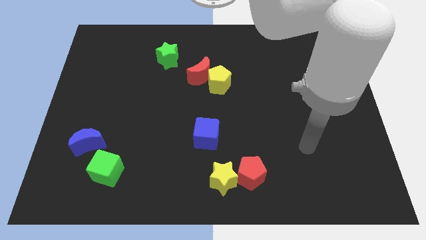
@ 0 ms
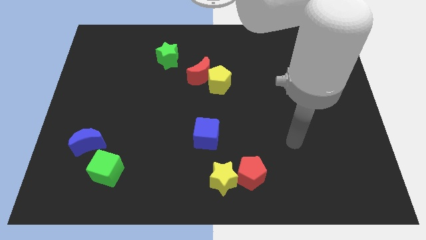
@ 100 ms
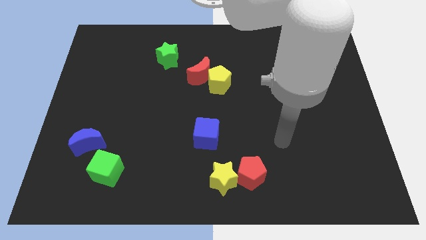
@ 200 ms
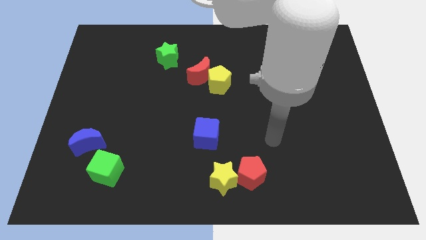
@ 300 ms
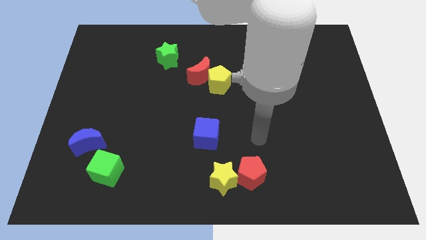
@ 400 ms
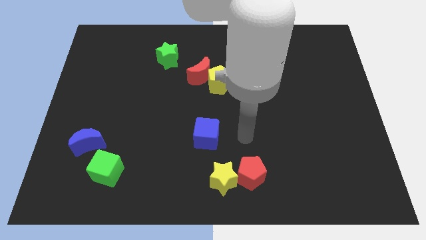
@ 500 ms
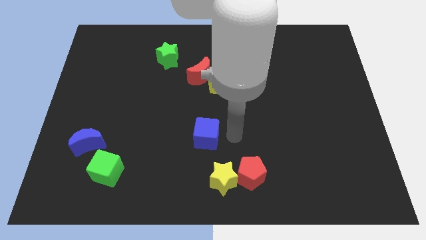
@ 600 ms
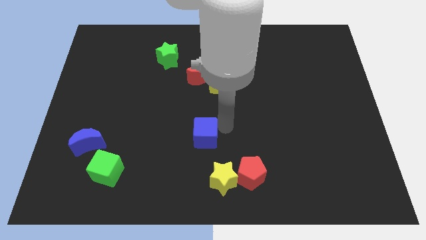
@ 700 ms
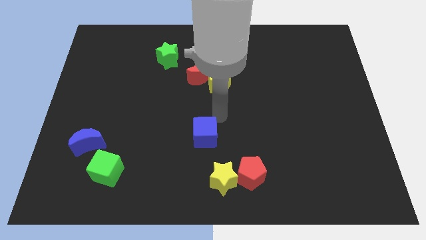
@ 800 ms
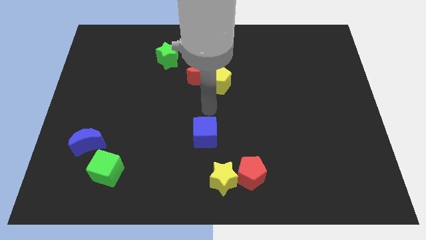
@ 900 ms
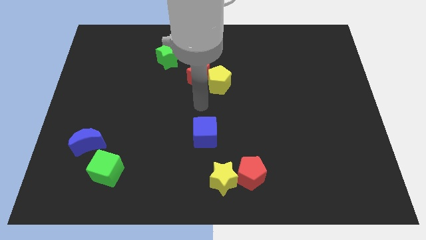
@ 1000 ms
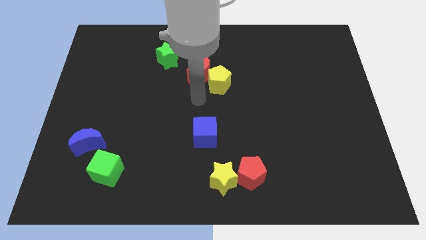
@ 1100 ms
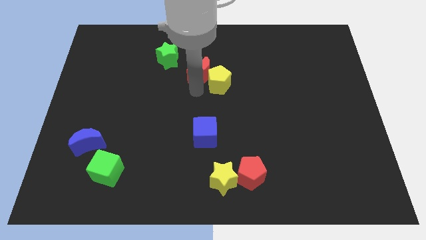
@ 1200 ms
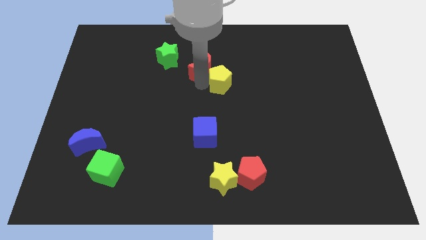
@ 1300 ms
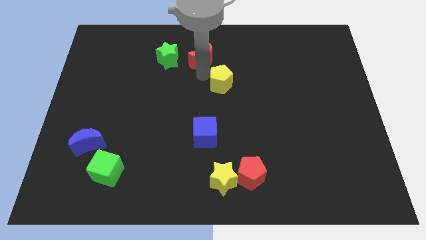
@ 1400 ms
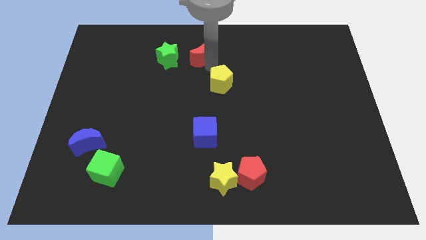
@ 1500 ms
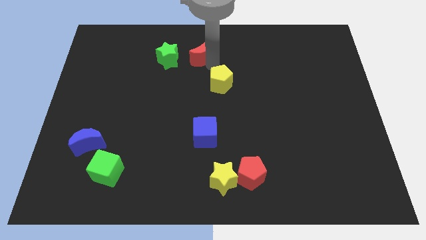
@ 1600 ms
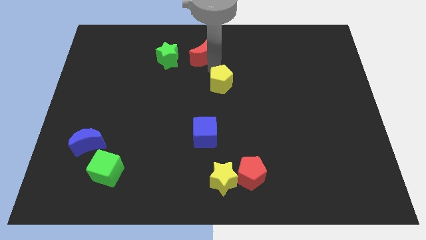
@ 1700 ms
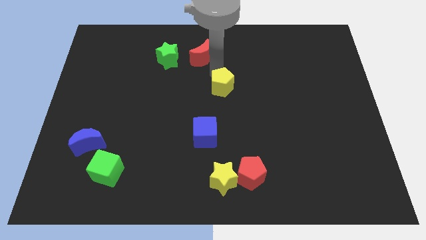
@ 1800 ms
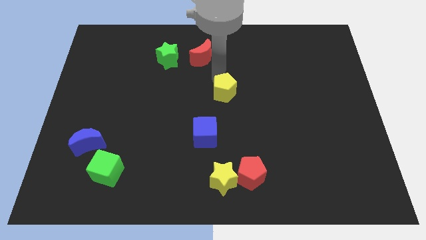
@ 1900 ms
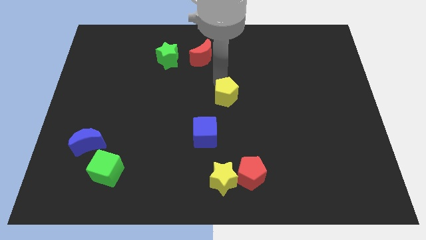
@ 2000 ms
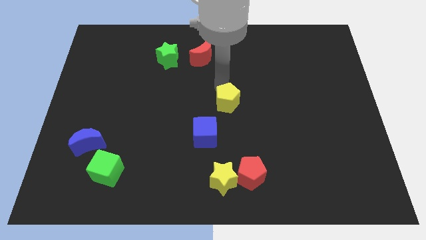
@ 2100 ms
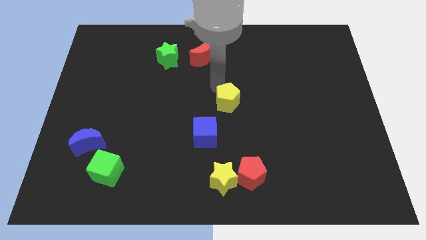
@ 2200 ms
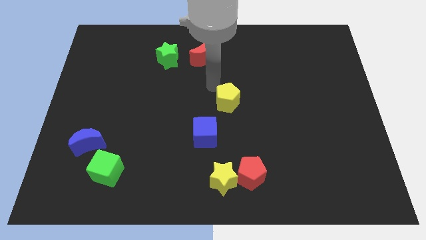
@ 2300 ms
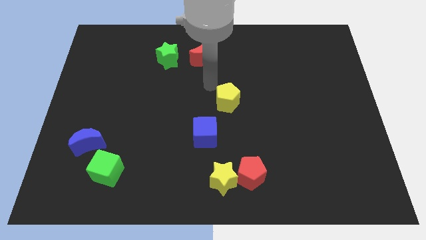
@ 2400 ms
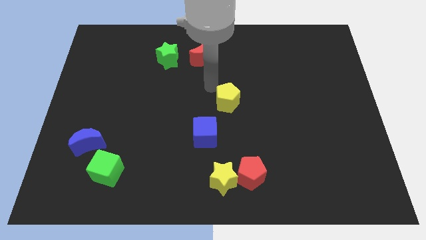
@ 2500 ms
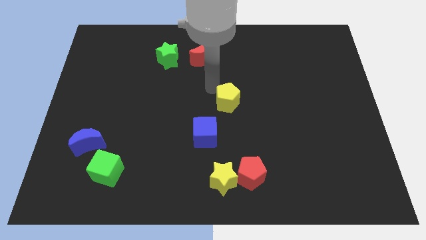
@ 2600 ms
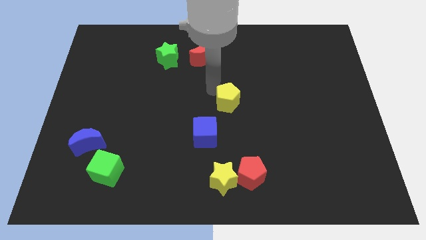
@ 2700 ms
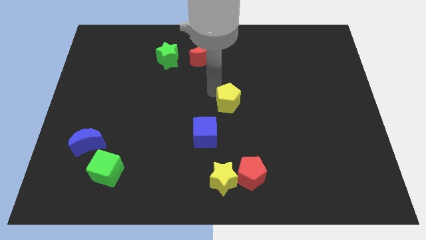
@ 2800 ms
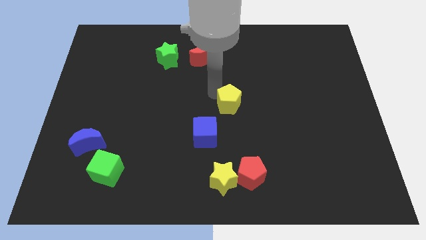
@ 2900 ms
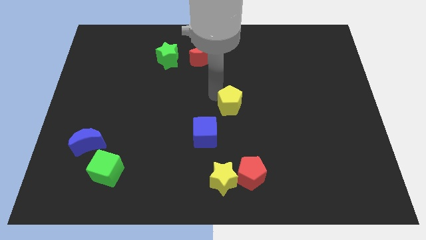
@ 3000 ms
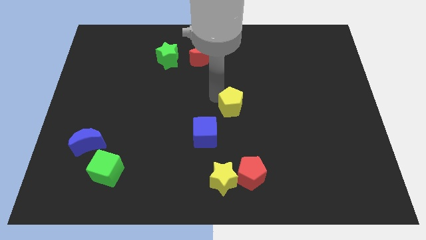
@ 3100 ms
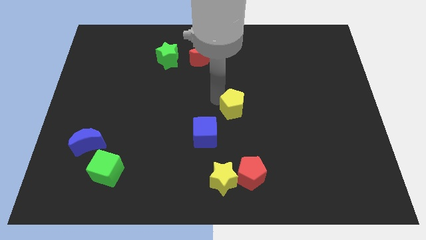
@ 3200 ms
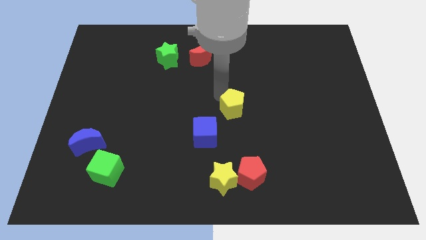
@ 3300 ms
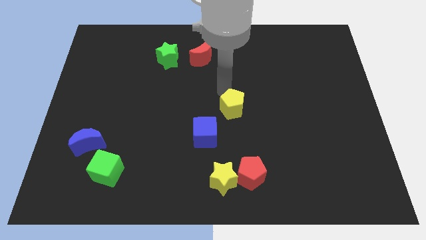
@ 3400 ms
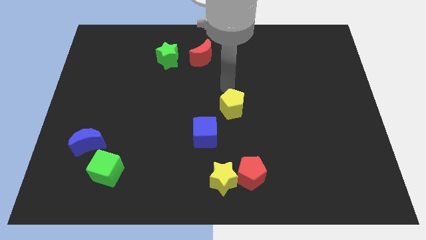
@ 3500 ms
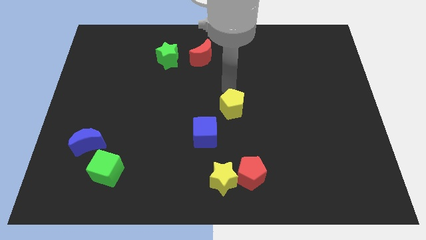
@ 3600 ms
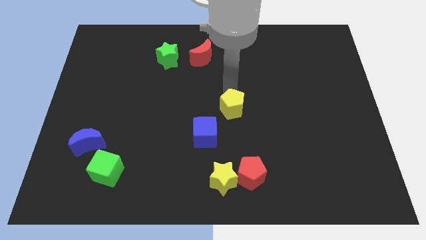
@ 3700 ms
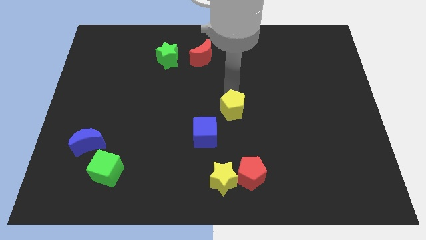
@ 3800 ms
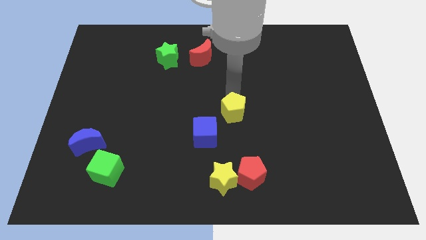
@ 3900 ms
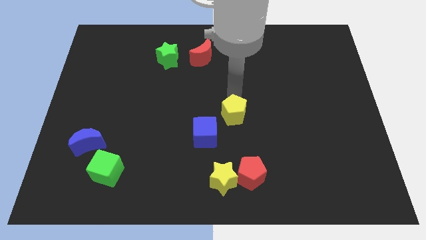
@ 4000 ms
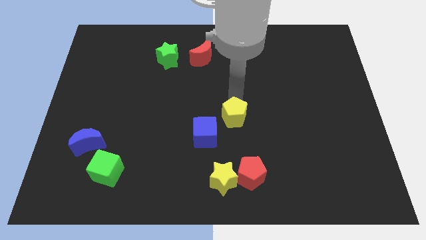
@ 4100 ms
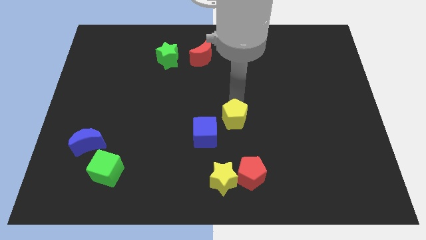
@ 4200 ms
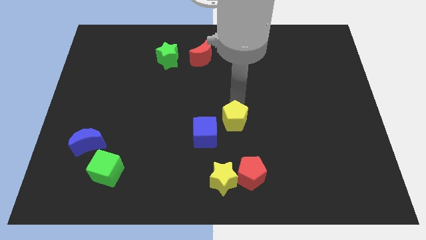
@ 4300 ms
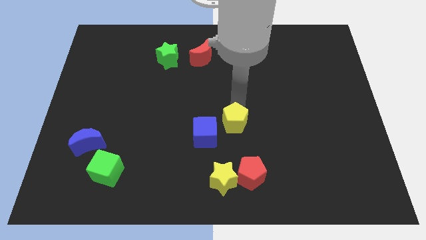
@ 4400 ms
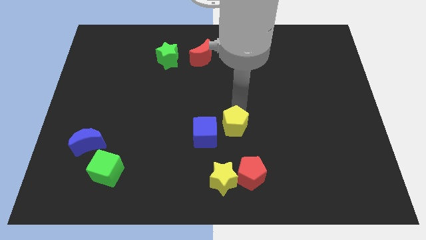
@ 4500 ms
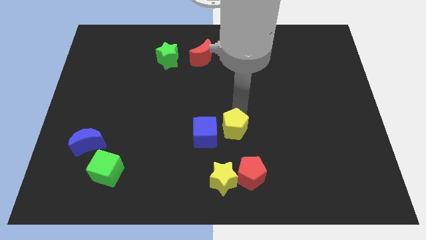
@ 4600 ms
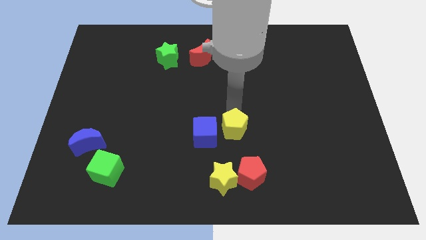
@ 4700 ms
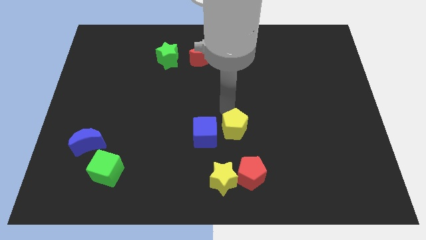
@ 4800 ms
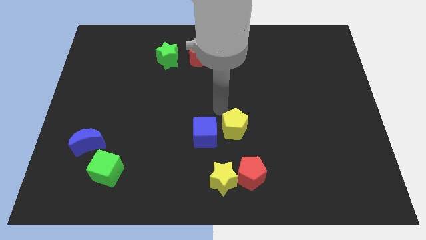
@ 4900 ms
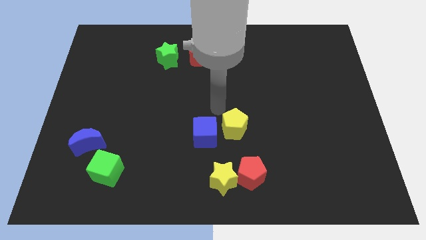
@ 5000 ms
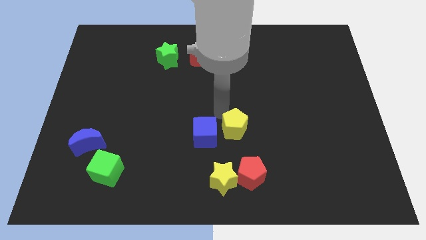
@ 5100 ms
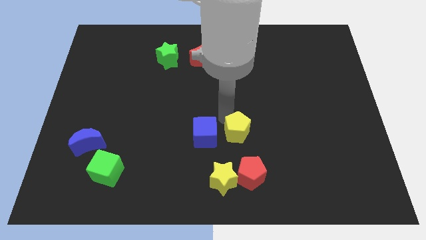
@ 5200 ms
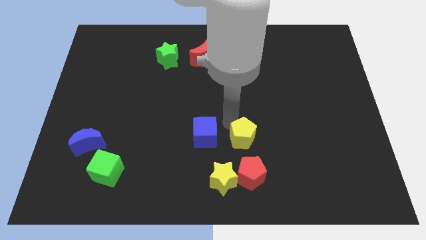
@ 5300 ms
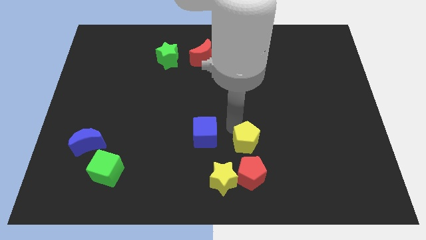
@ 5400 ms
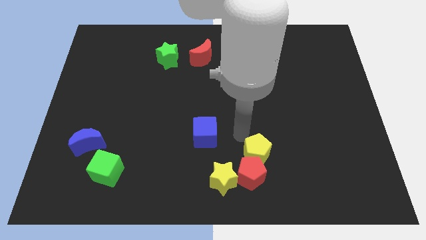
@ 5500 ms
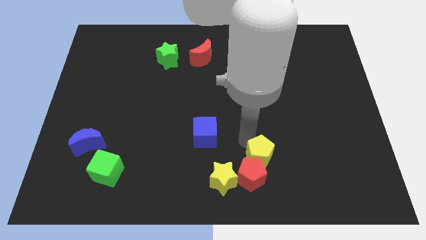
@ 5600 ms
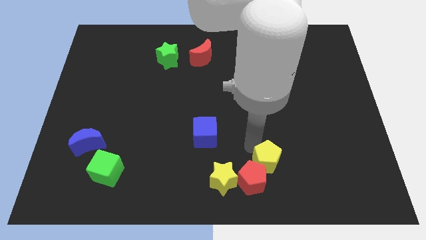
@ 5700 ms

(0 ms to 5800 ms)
put the yellow pentagon right of the yellow star

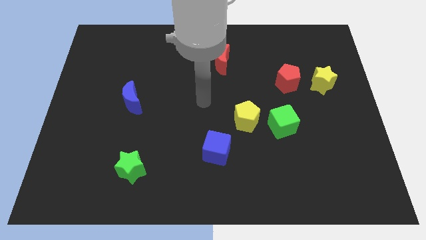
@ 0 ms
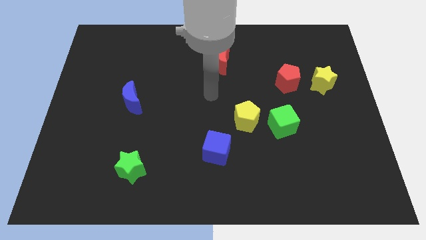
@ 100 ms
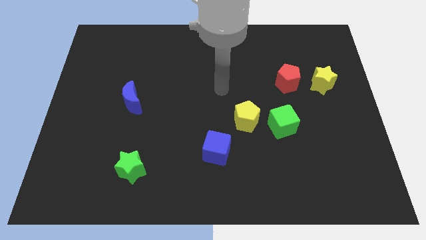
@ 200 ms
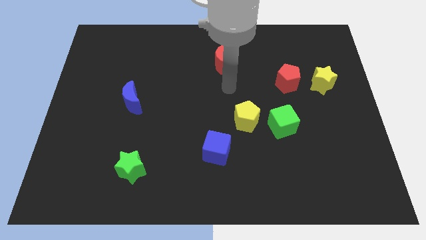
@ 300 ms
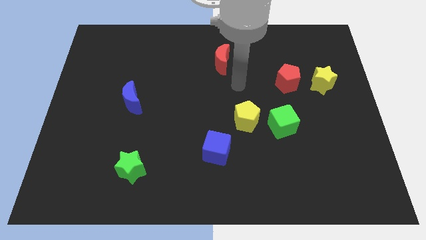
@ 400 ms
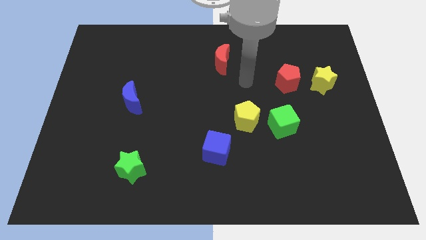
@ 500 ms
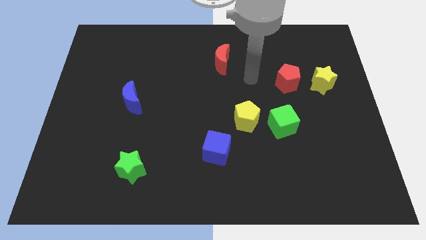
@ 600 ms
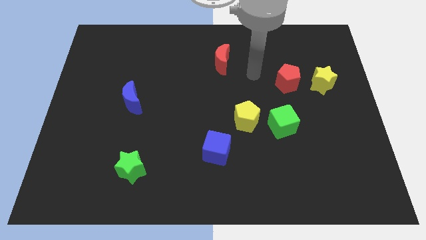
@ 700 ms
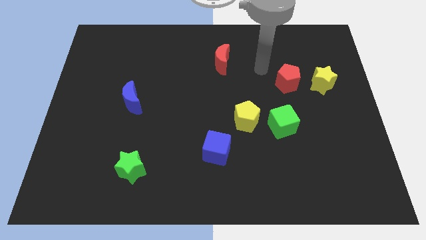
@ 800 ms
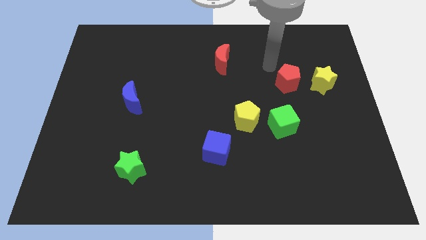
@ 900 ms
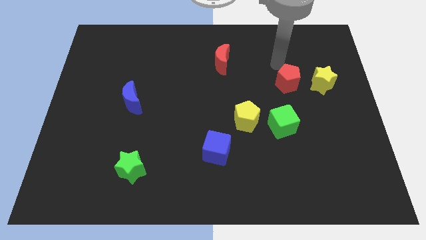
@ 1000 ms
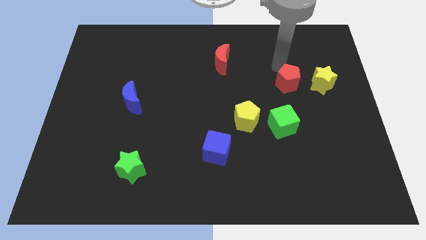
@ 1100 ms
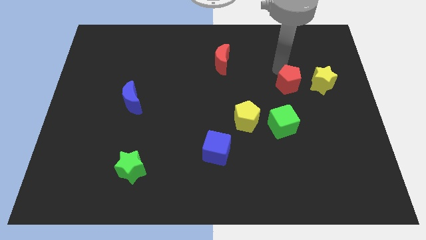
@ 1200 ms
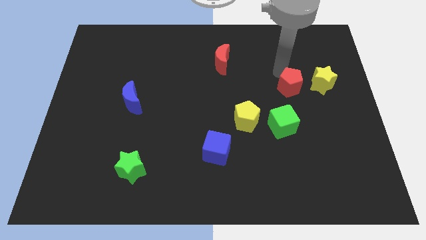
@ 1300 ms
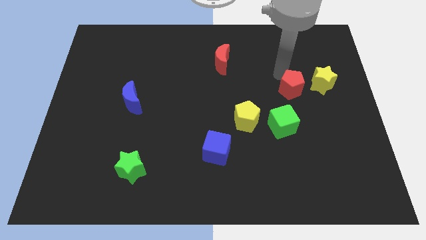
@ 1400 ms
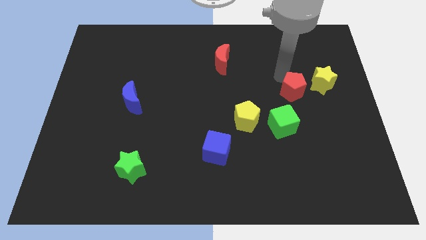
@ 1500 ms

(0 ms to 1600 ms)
put the red pentagon diagonally up and to the right of the green cube

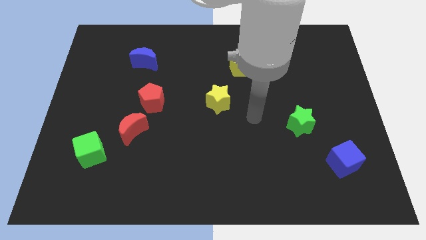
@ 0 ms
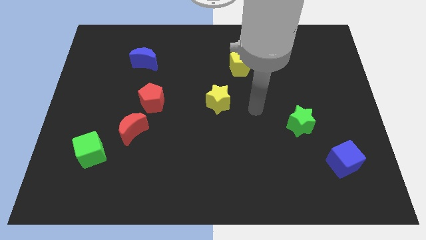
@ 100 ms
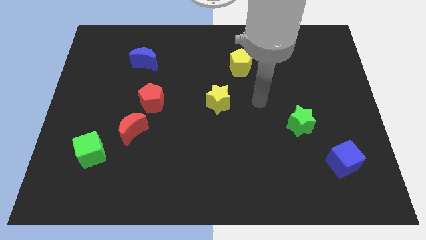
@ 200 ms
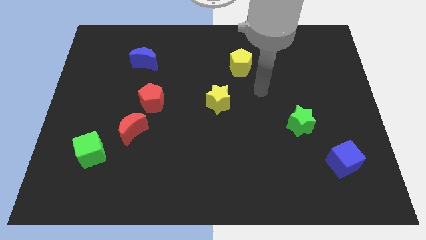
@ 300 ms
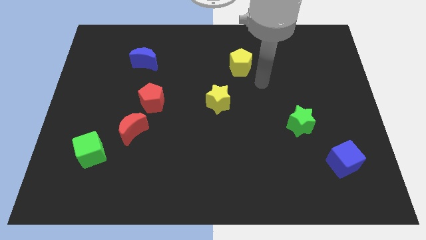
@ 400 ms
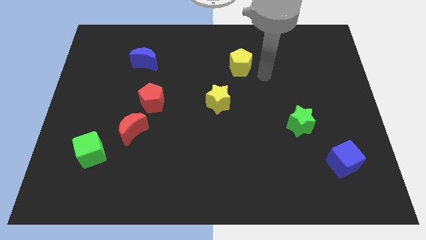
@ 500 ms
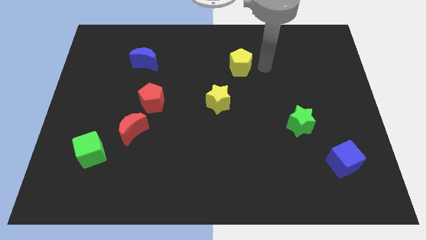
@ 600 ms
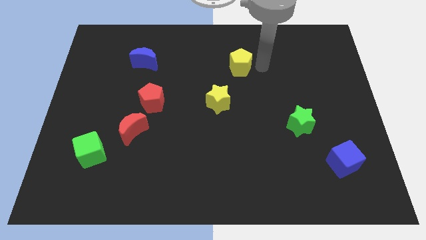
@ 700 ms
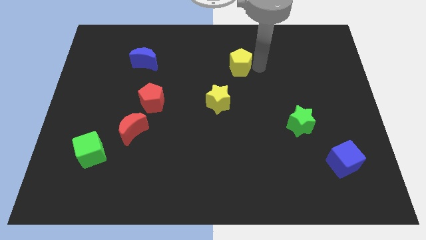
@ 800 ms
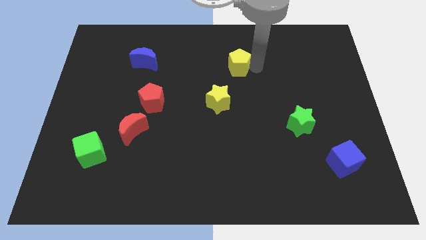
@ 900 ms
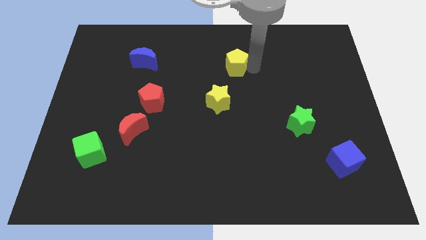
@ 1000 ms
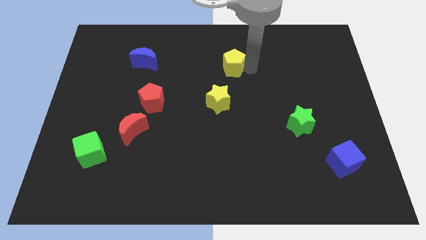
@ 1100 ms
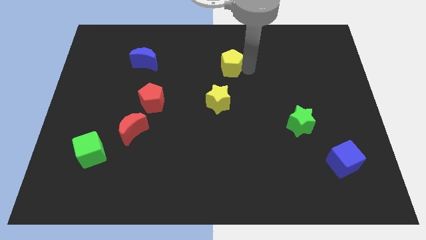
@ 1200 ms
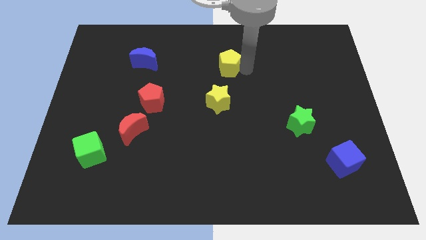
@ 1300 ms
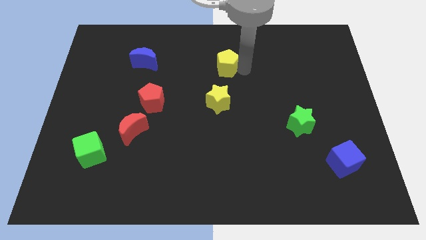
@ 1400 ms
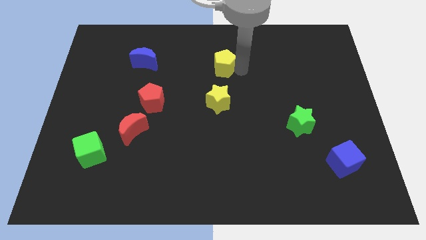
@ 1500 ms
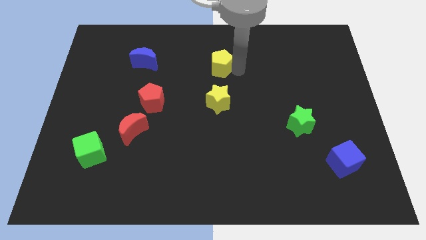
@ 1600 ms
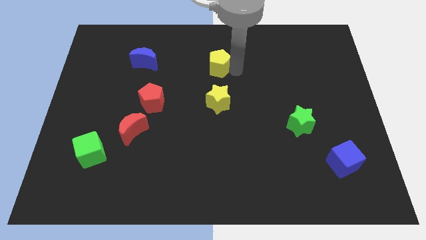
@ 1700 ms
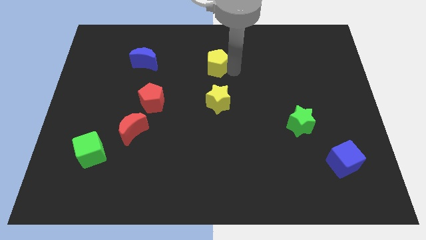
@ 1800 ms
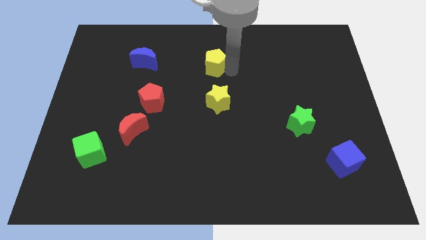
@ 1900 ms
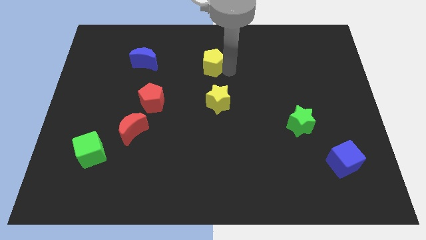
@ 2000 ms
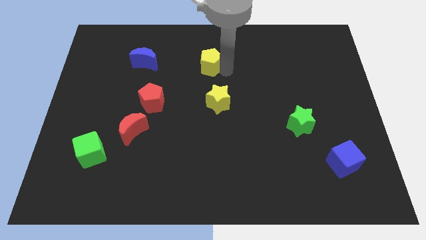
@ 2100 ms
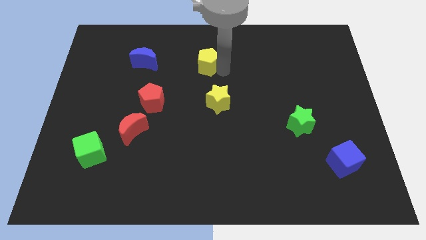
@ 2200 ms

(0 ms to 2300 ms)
push the yellow pentagon to the right of the blue moon
